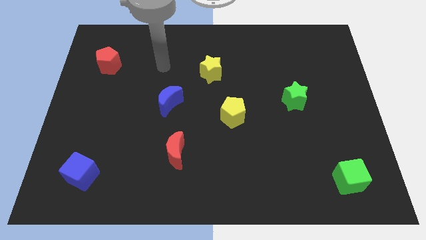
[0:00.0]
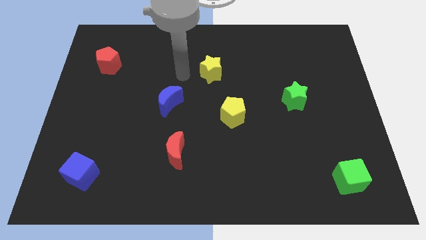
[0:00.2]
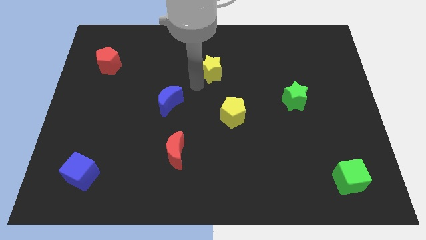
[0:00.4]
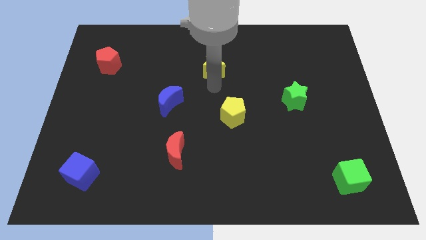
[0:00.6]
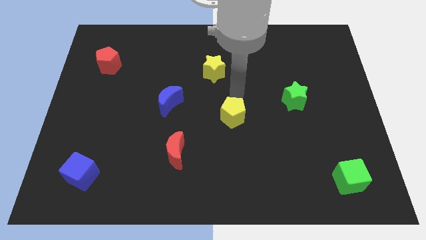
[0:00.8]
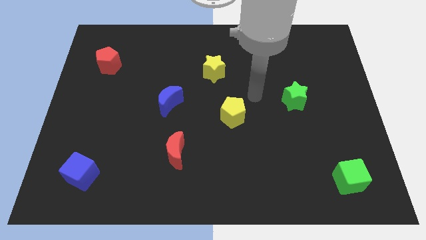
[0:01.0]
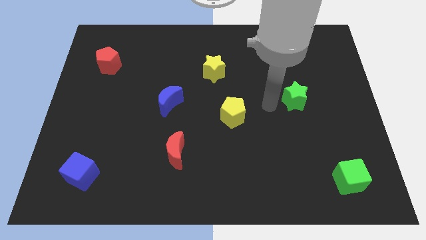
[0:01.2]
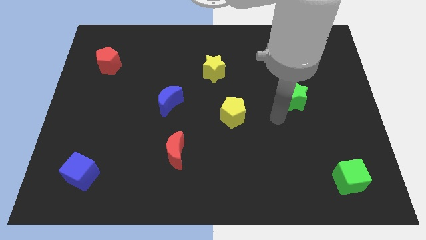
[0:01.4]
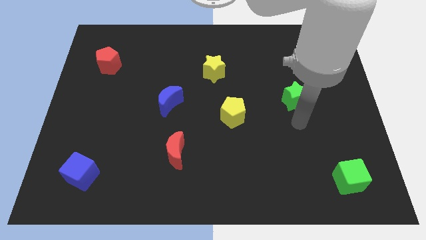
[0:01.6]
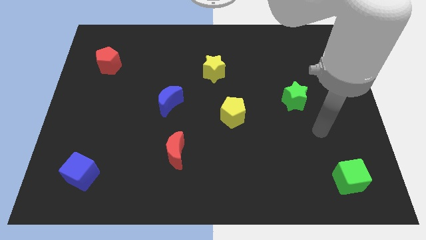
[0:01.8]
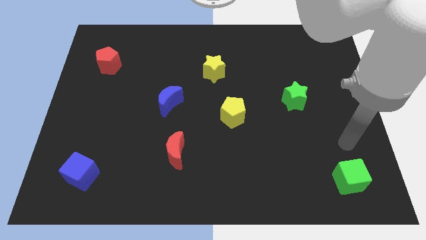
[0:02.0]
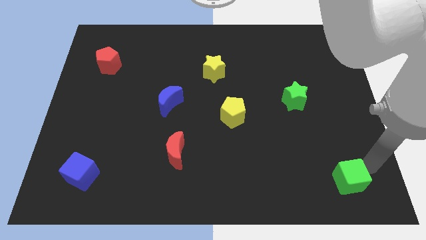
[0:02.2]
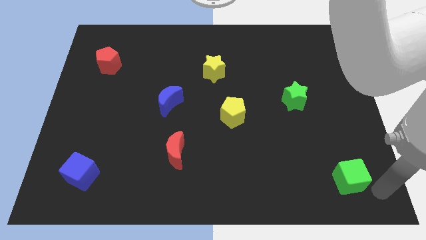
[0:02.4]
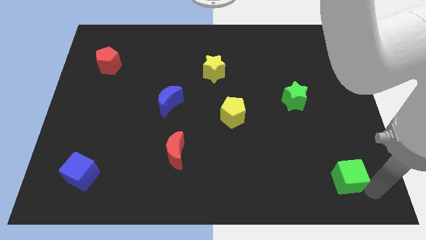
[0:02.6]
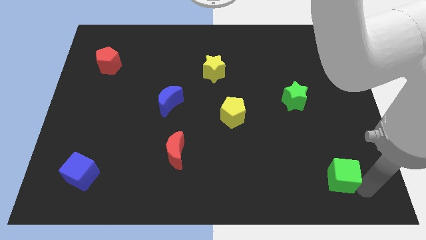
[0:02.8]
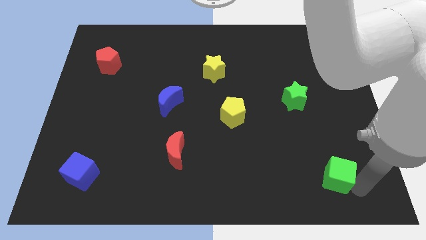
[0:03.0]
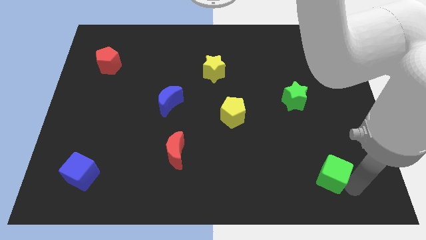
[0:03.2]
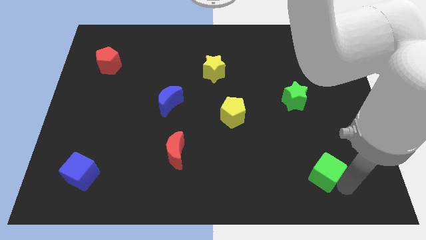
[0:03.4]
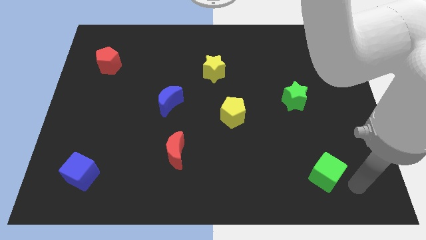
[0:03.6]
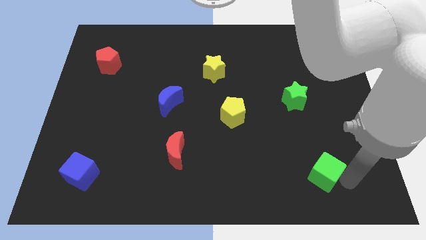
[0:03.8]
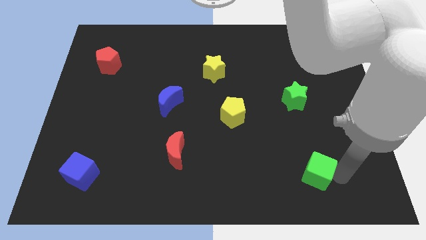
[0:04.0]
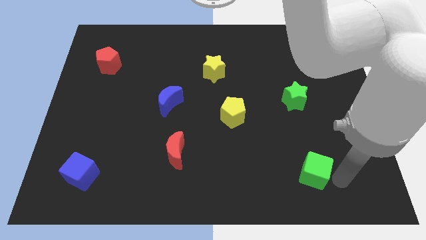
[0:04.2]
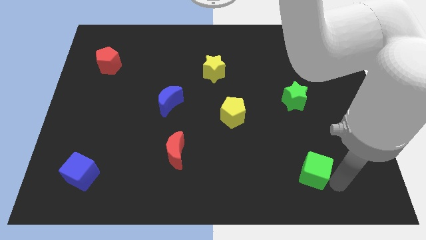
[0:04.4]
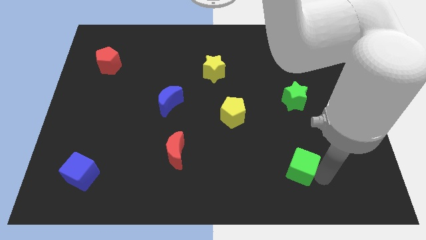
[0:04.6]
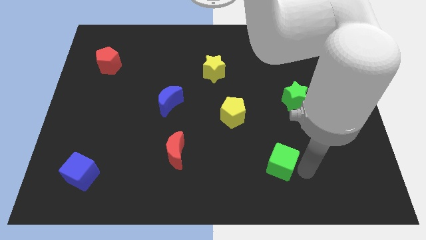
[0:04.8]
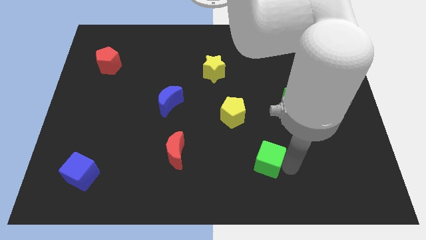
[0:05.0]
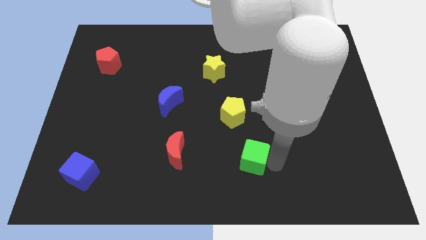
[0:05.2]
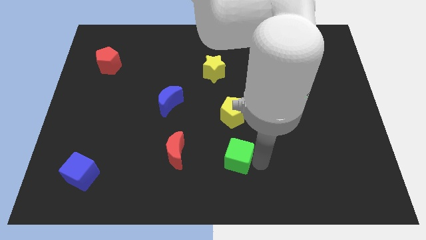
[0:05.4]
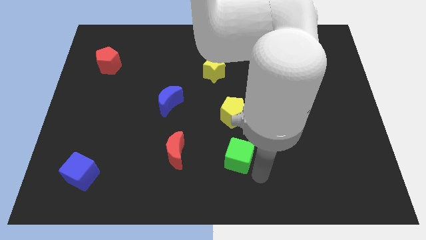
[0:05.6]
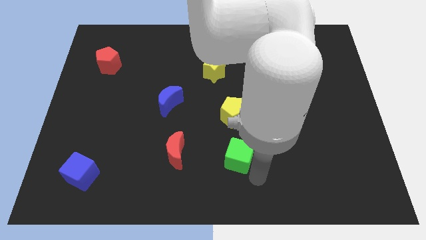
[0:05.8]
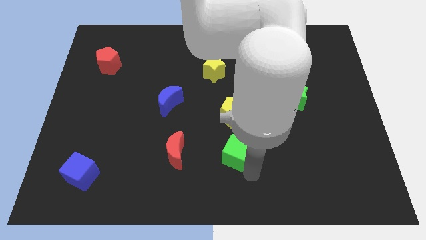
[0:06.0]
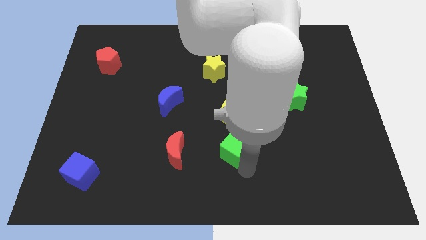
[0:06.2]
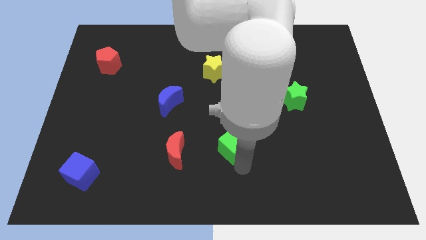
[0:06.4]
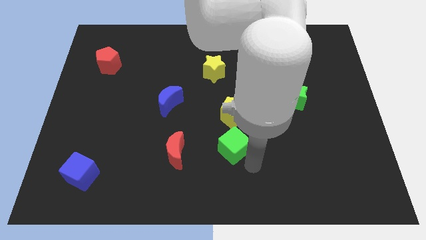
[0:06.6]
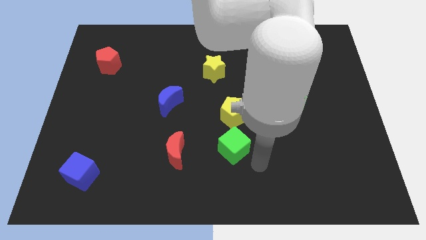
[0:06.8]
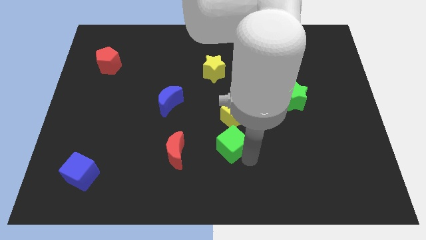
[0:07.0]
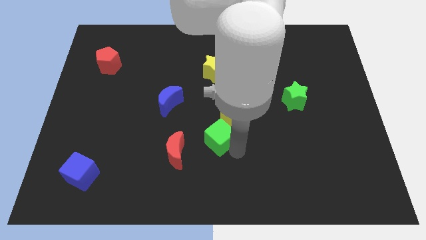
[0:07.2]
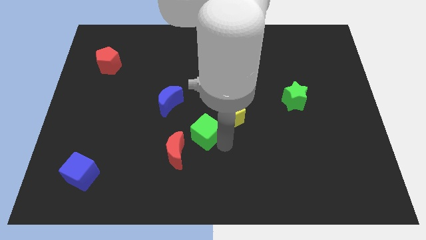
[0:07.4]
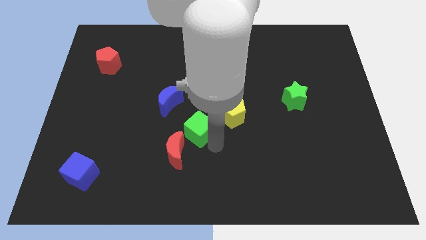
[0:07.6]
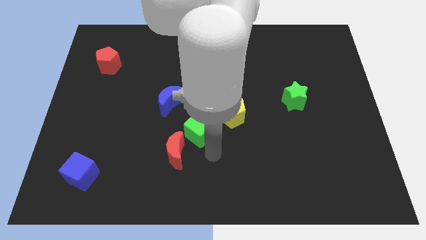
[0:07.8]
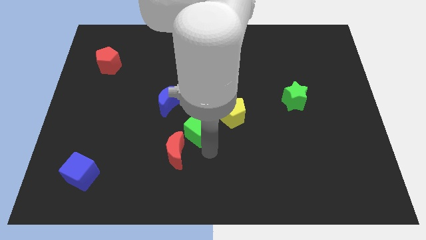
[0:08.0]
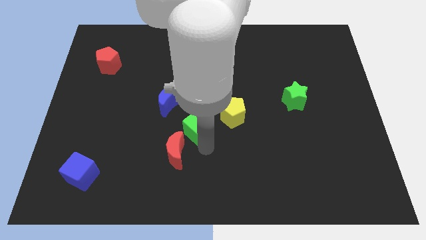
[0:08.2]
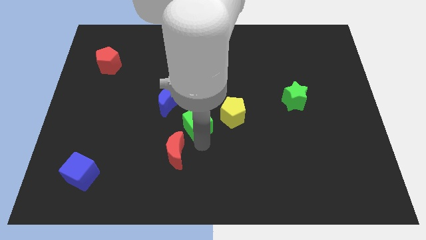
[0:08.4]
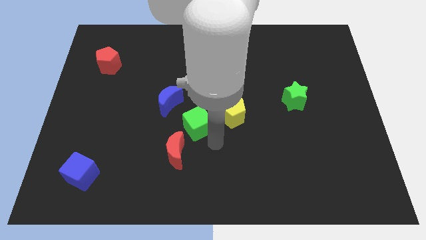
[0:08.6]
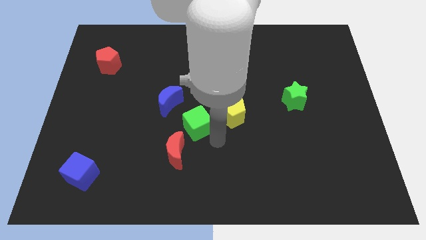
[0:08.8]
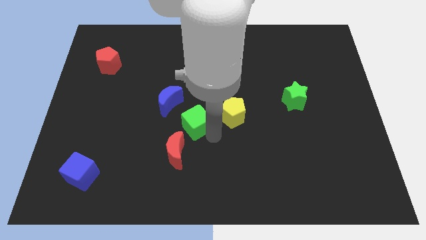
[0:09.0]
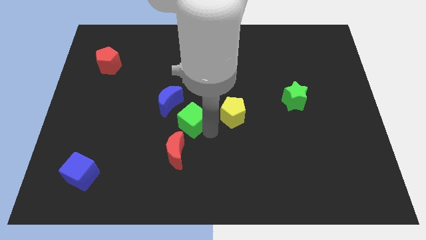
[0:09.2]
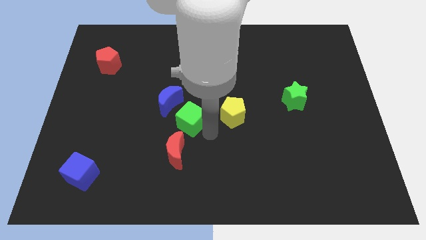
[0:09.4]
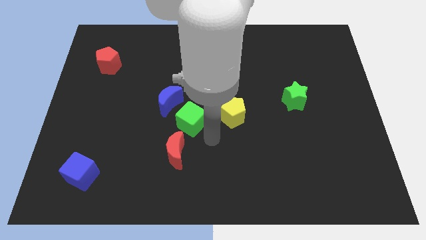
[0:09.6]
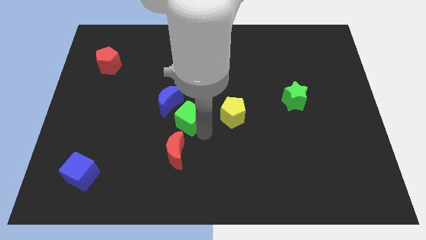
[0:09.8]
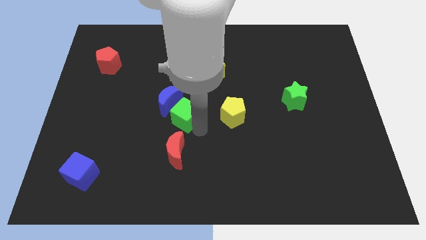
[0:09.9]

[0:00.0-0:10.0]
move the green cube towards the blue moon

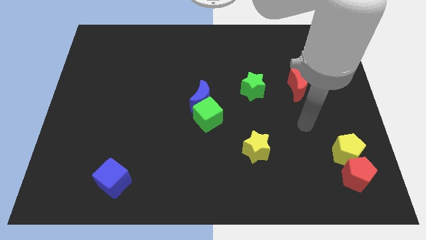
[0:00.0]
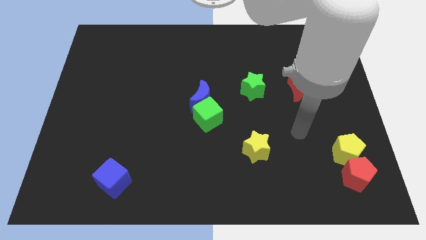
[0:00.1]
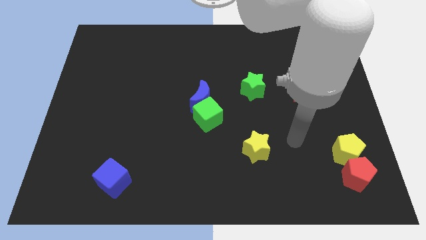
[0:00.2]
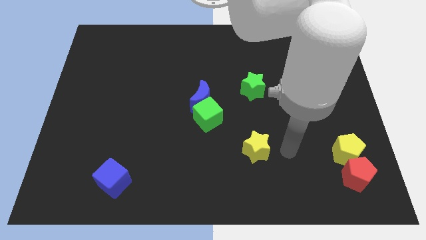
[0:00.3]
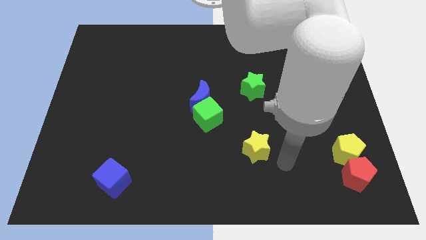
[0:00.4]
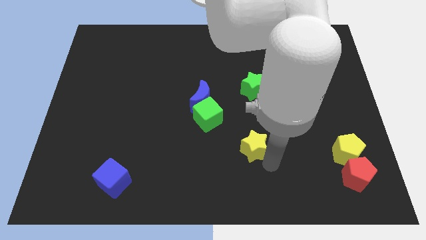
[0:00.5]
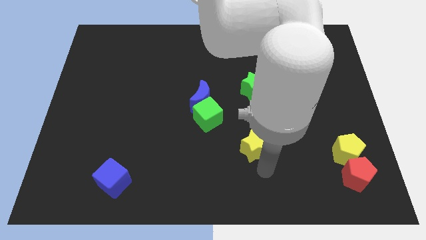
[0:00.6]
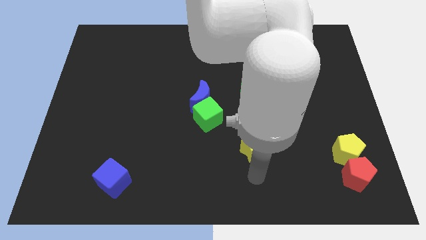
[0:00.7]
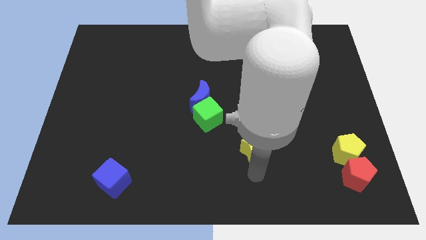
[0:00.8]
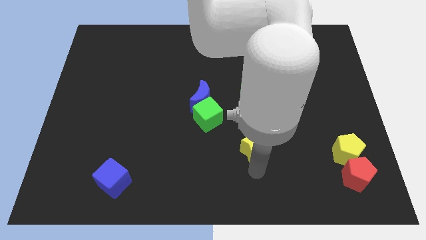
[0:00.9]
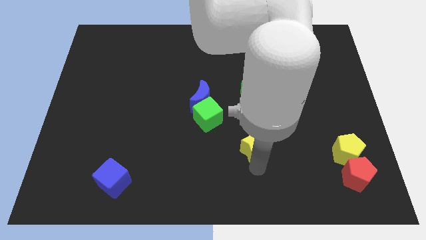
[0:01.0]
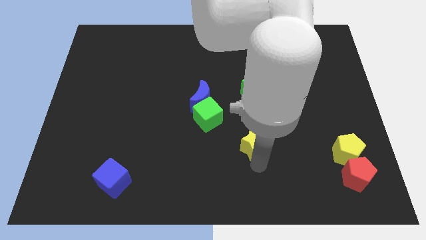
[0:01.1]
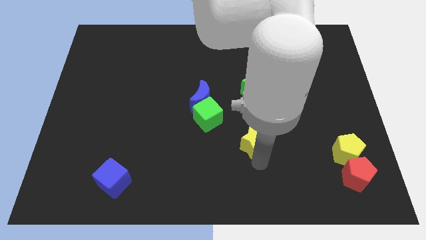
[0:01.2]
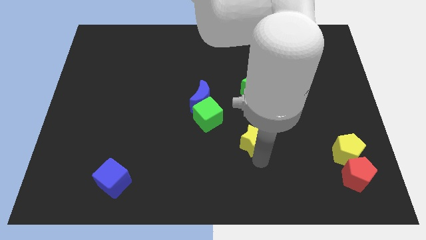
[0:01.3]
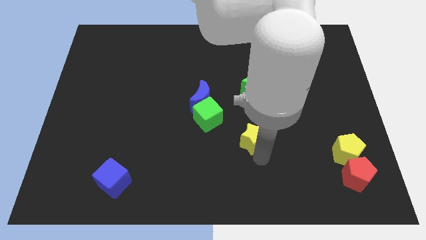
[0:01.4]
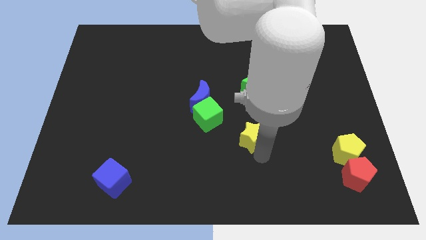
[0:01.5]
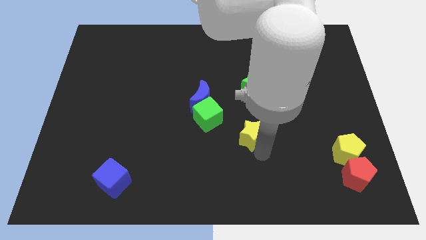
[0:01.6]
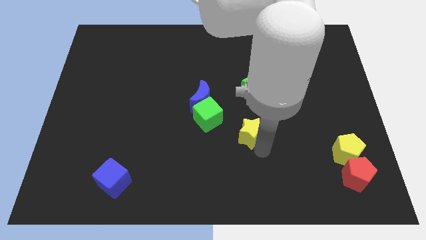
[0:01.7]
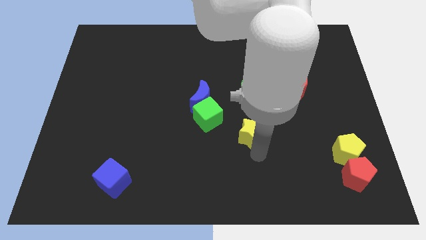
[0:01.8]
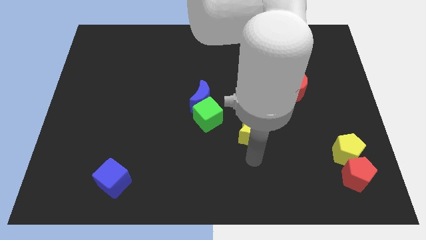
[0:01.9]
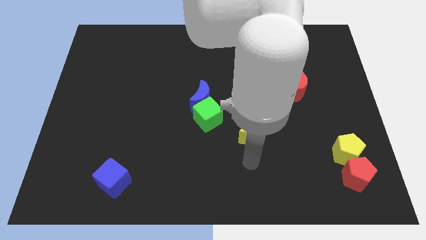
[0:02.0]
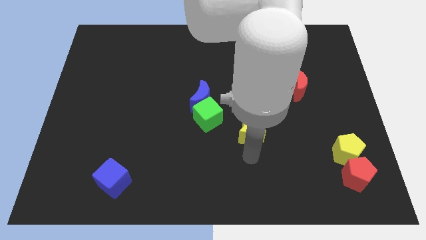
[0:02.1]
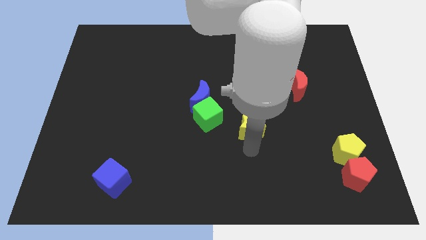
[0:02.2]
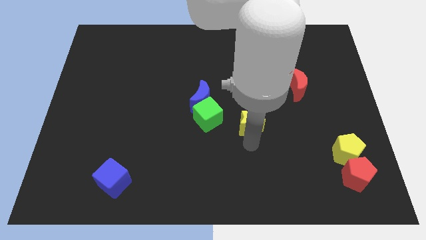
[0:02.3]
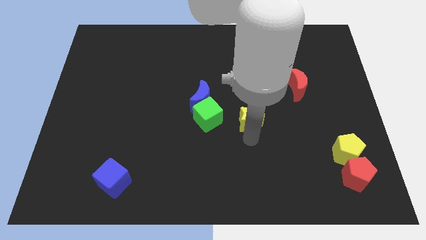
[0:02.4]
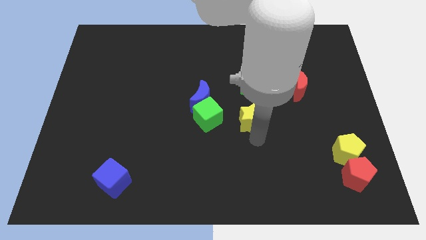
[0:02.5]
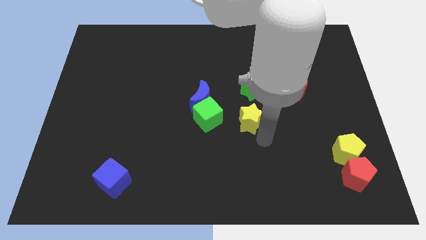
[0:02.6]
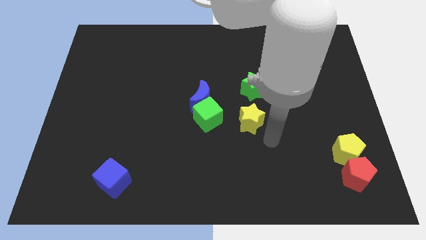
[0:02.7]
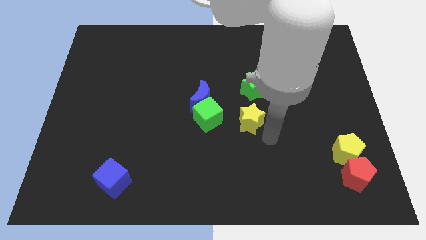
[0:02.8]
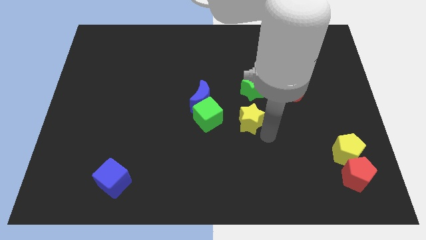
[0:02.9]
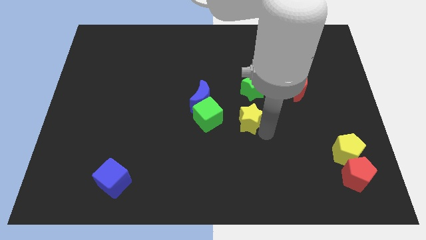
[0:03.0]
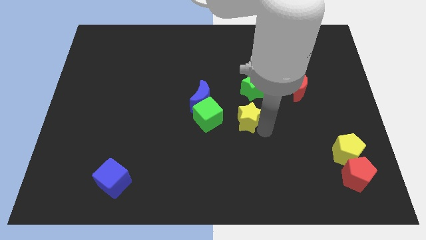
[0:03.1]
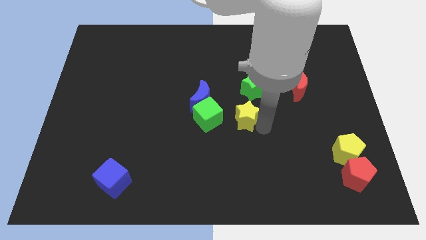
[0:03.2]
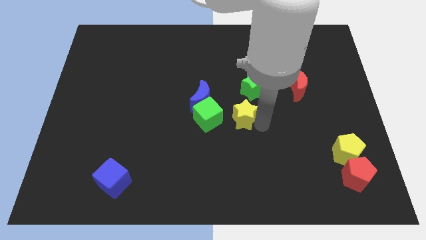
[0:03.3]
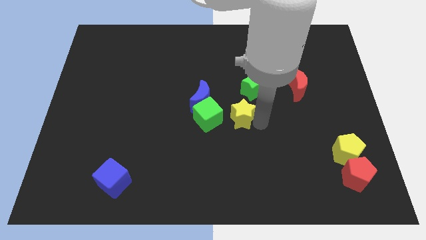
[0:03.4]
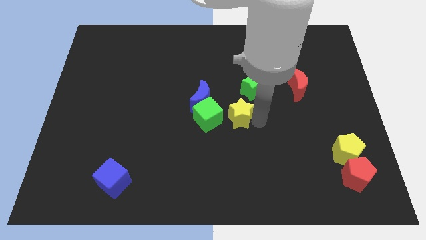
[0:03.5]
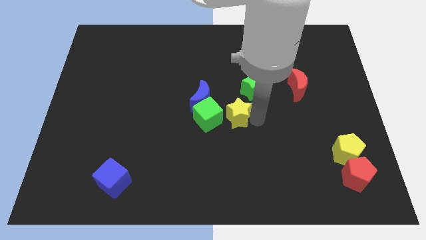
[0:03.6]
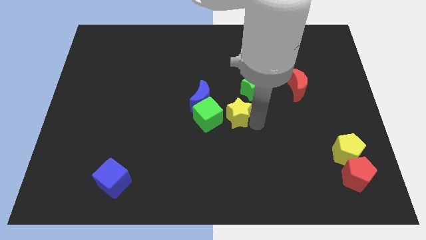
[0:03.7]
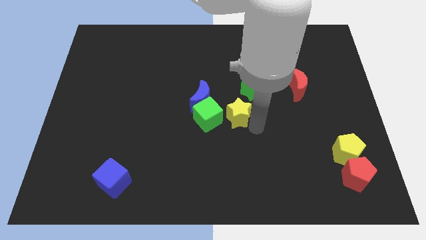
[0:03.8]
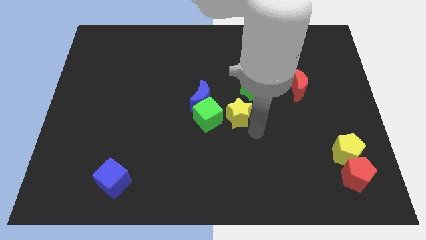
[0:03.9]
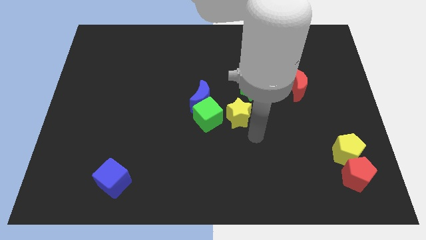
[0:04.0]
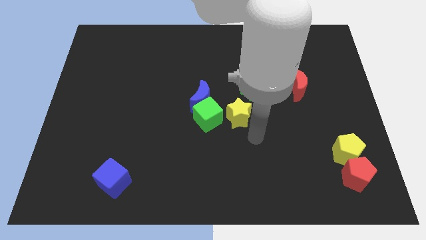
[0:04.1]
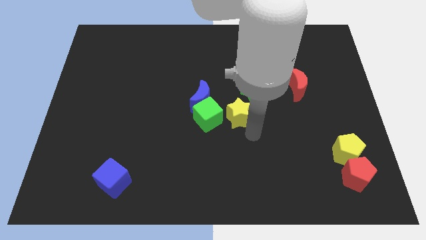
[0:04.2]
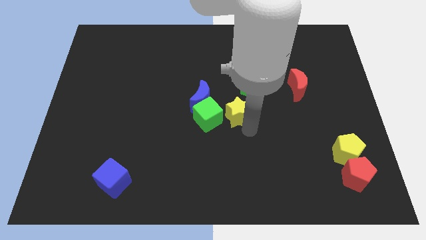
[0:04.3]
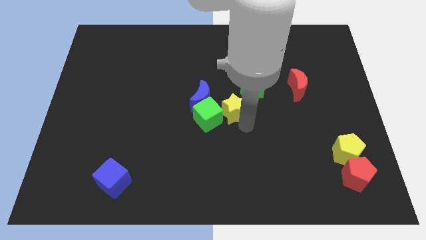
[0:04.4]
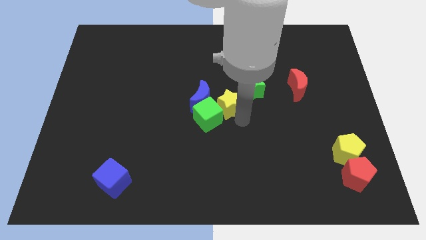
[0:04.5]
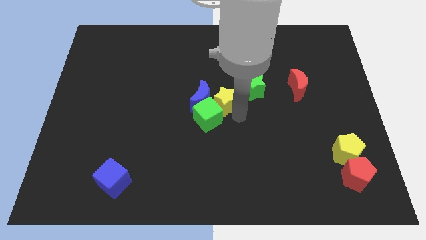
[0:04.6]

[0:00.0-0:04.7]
put the yellow star towards the blue moon
